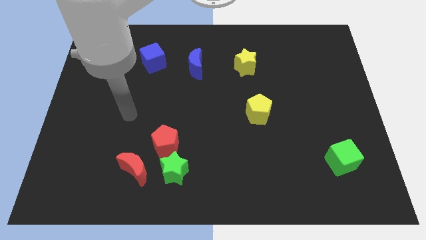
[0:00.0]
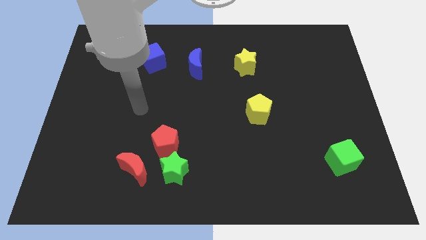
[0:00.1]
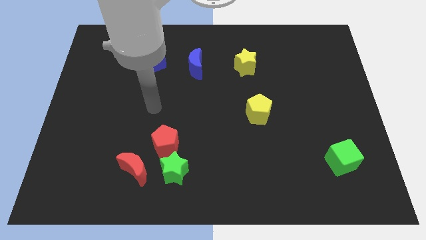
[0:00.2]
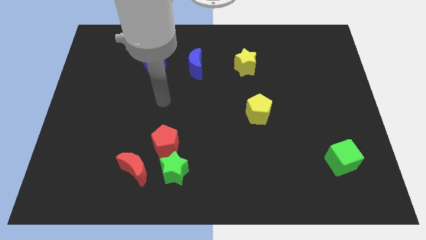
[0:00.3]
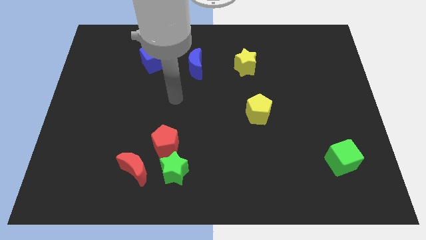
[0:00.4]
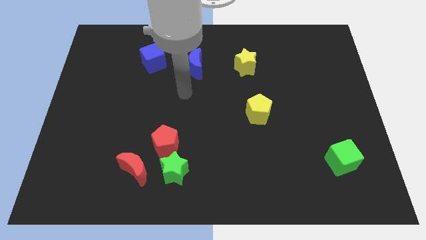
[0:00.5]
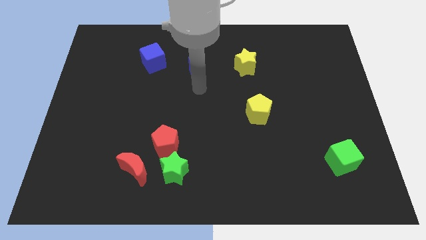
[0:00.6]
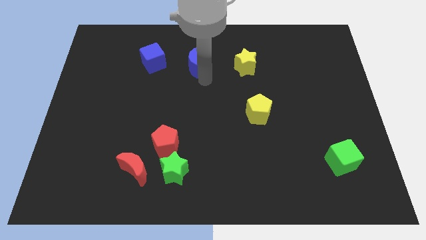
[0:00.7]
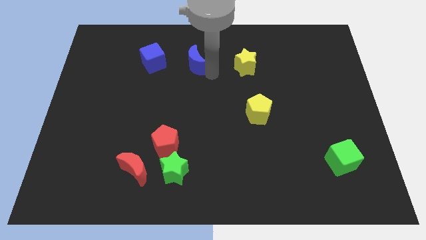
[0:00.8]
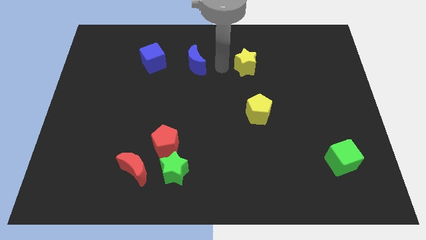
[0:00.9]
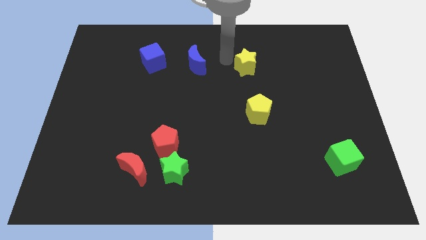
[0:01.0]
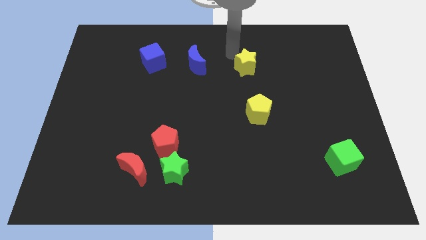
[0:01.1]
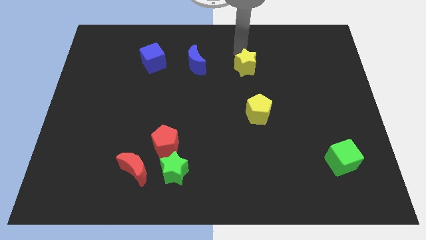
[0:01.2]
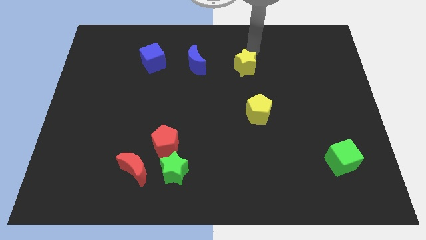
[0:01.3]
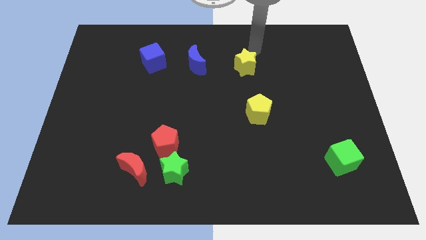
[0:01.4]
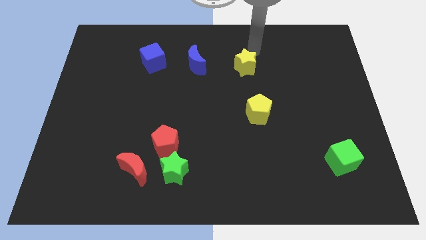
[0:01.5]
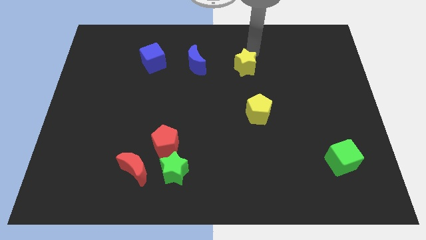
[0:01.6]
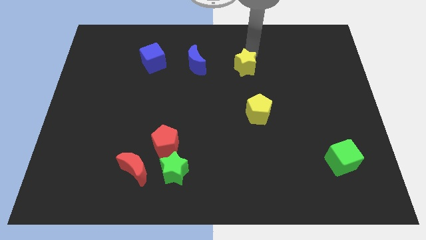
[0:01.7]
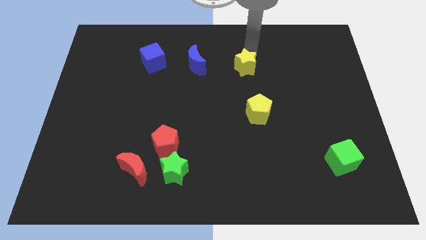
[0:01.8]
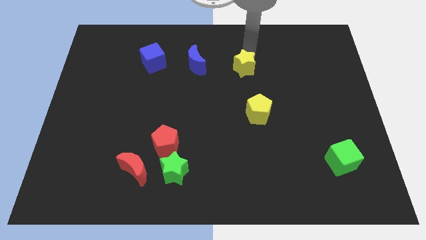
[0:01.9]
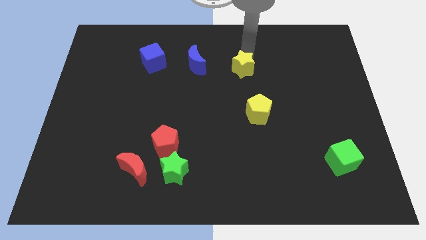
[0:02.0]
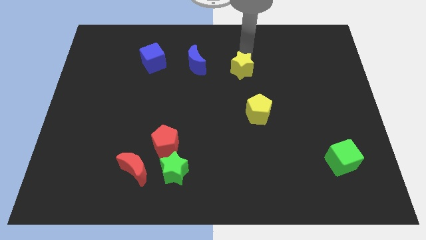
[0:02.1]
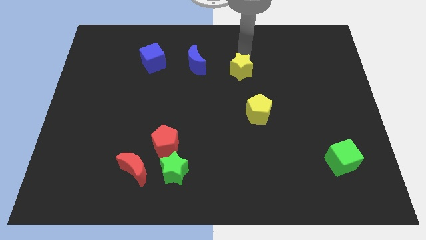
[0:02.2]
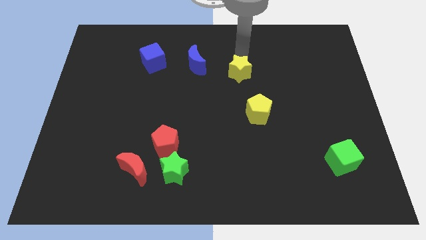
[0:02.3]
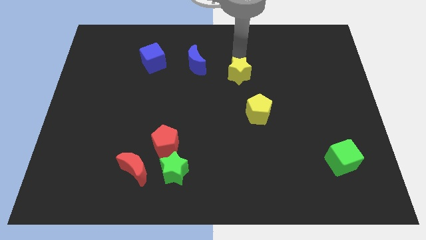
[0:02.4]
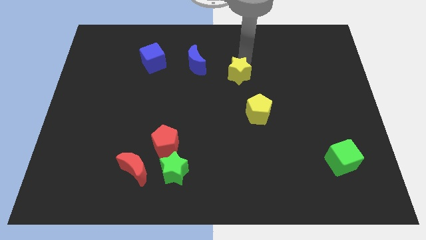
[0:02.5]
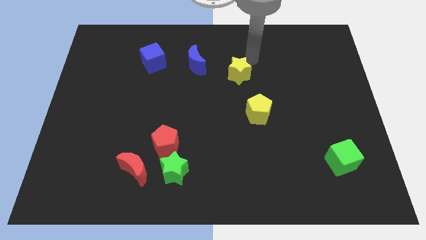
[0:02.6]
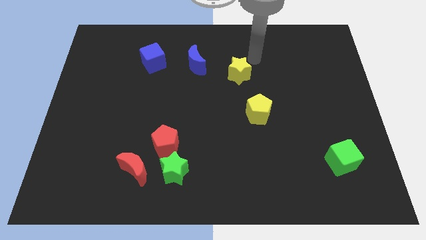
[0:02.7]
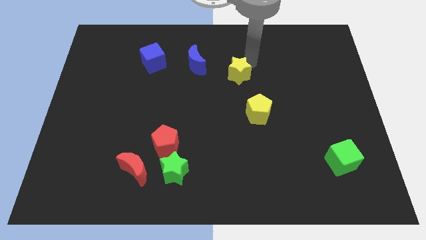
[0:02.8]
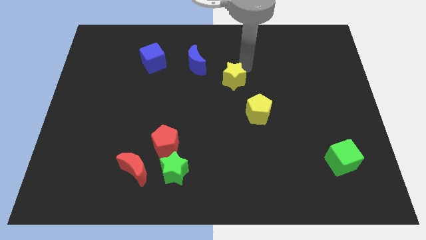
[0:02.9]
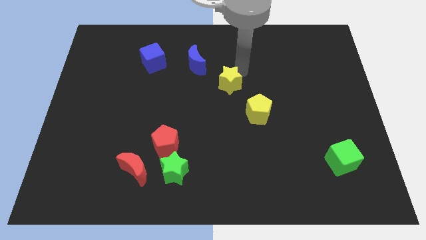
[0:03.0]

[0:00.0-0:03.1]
push the yellow star diagonally downwards and to the left a bit

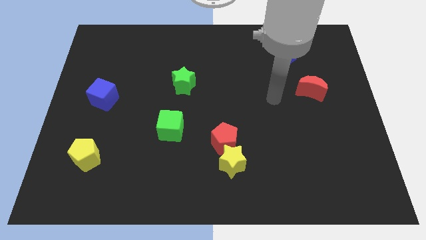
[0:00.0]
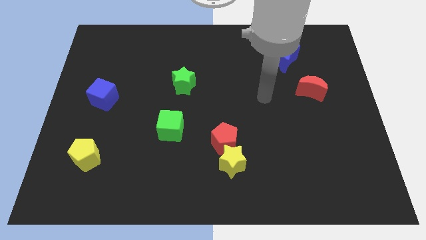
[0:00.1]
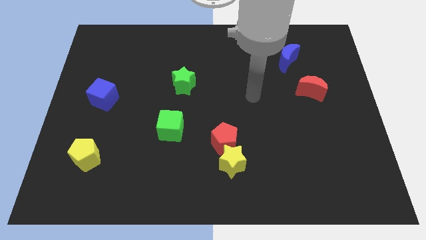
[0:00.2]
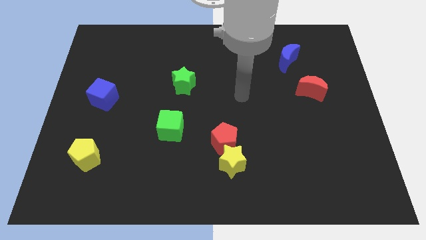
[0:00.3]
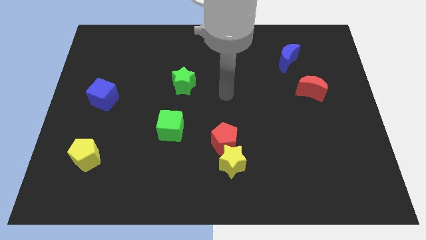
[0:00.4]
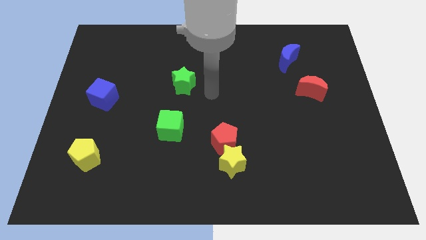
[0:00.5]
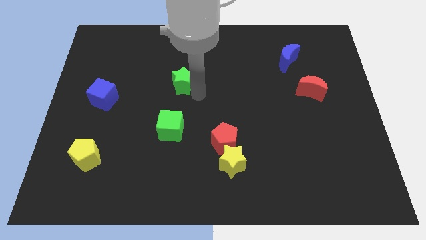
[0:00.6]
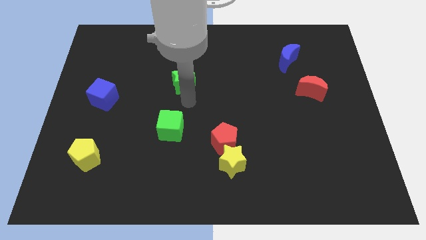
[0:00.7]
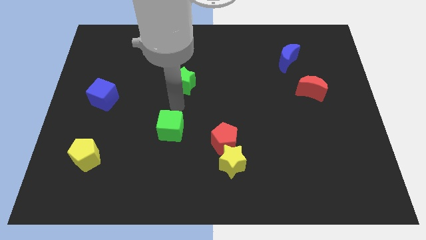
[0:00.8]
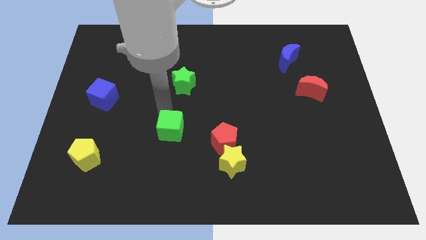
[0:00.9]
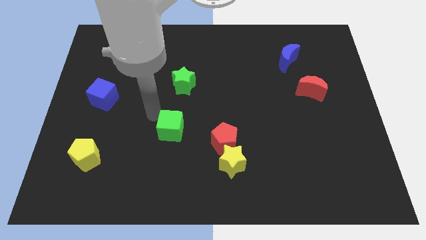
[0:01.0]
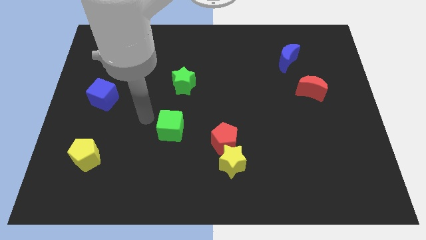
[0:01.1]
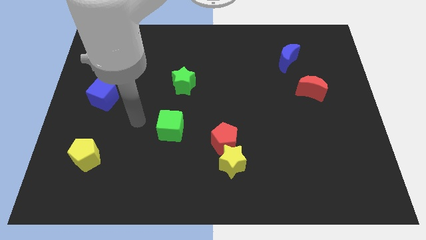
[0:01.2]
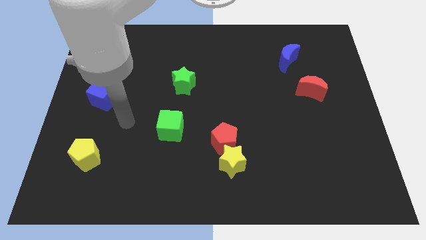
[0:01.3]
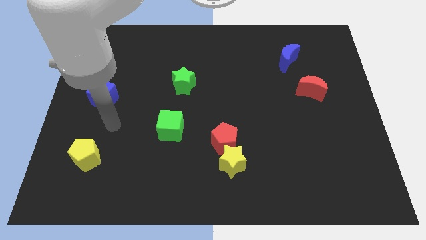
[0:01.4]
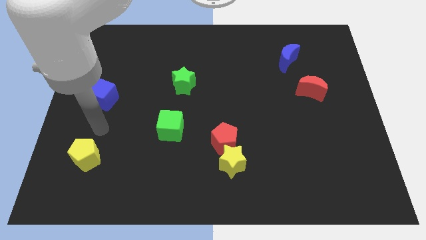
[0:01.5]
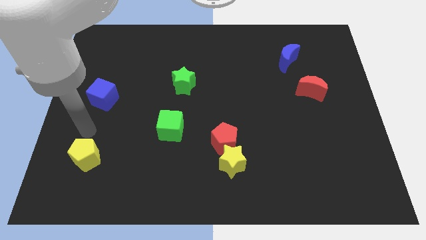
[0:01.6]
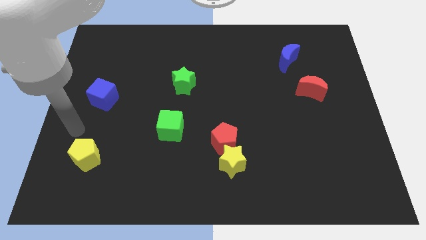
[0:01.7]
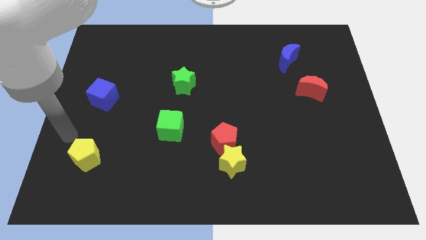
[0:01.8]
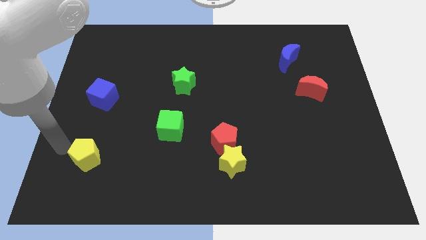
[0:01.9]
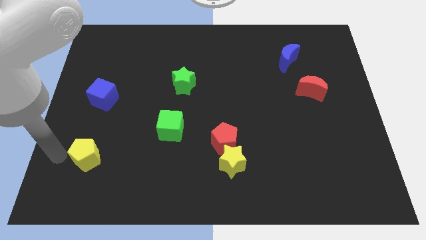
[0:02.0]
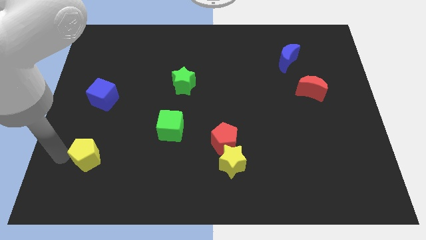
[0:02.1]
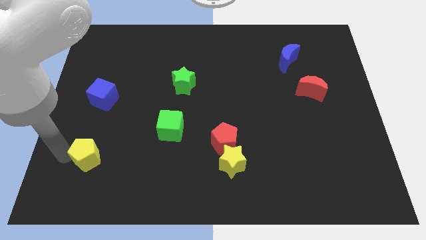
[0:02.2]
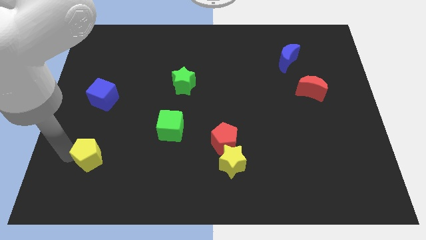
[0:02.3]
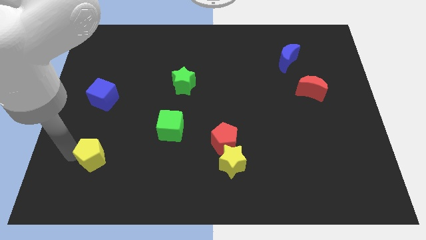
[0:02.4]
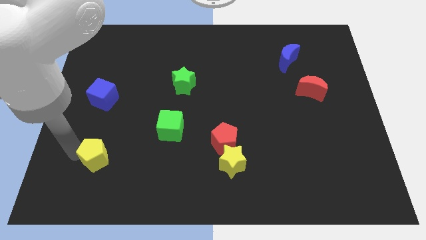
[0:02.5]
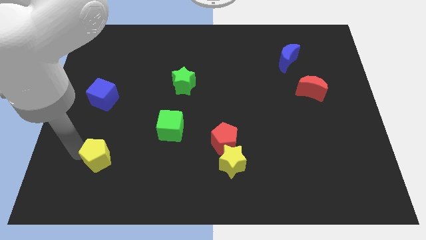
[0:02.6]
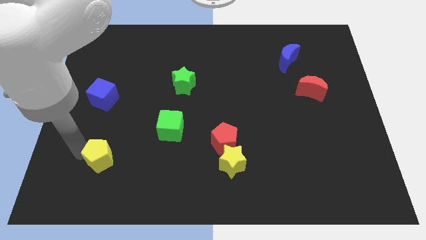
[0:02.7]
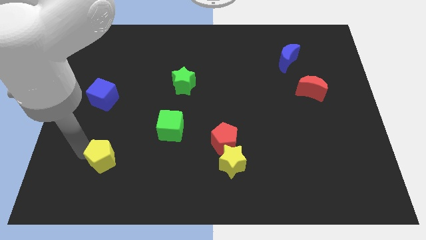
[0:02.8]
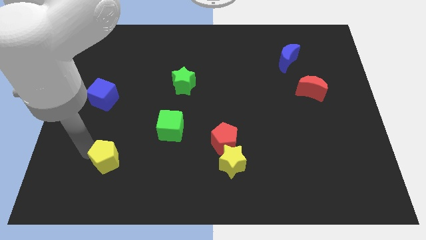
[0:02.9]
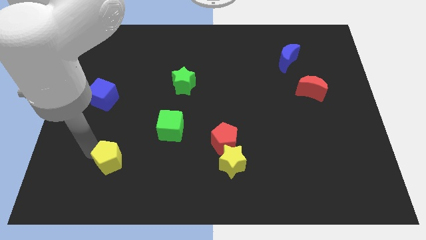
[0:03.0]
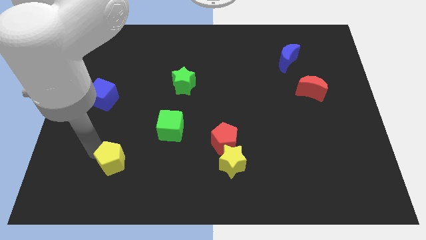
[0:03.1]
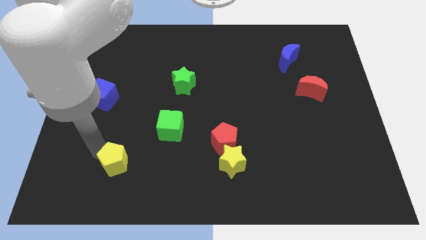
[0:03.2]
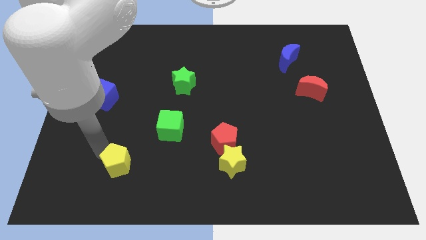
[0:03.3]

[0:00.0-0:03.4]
slide the yellow pentagon to the right a bit

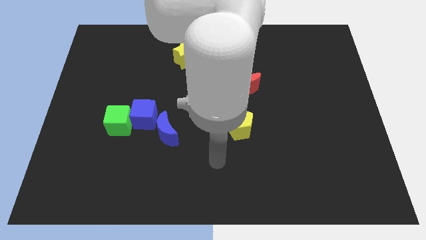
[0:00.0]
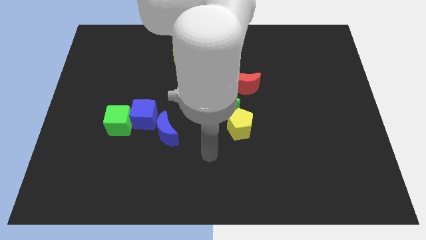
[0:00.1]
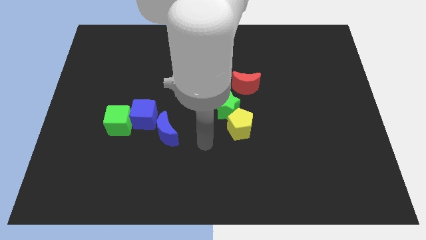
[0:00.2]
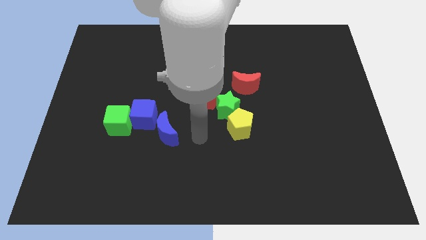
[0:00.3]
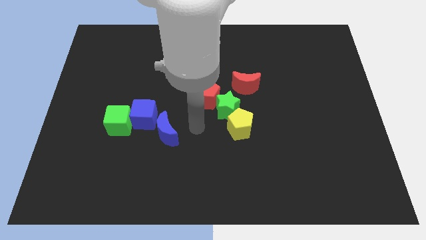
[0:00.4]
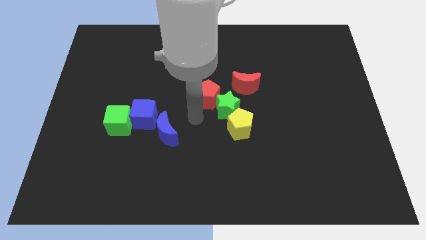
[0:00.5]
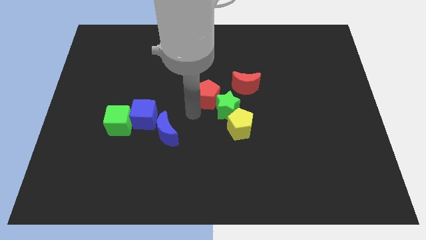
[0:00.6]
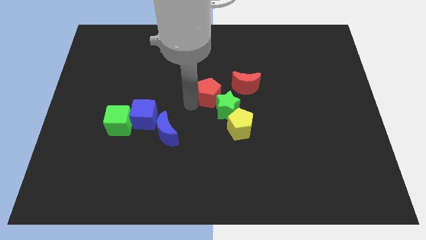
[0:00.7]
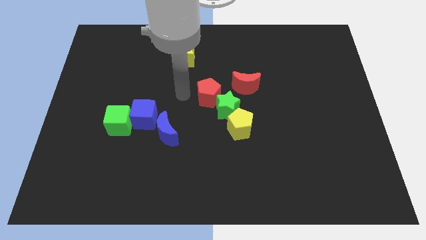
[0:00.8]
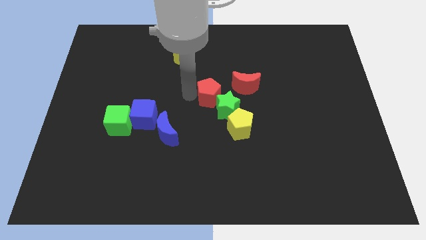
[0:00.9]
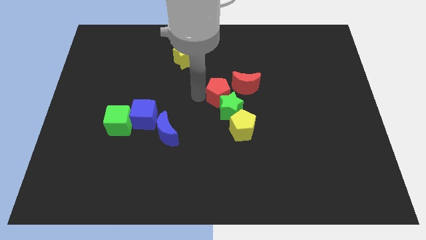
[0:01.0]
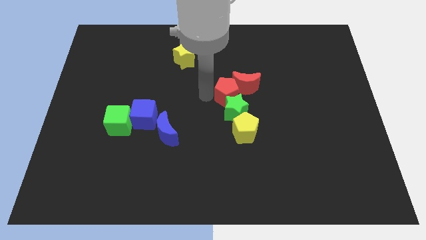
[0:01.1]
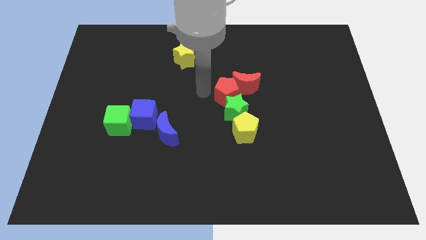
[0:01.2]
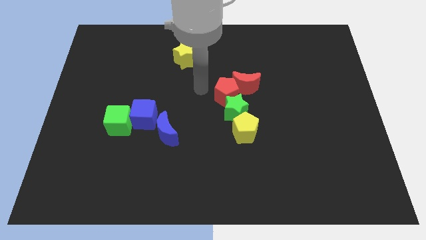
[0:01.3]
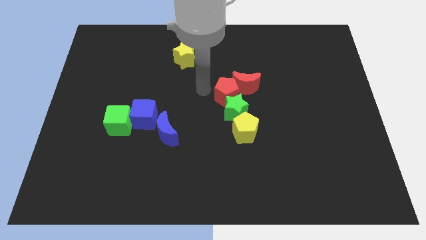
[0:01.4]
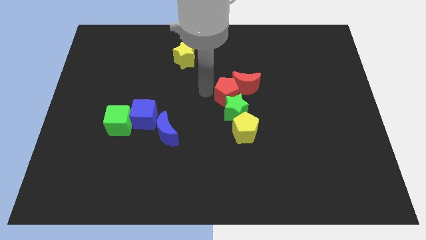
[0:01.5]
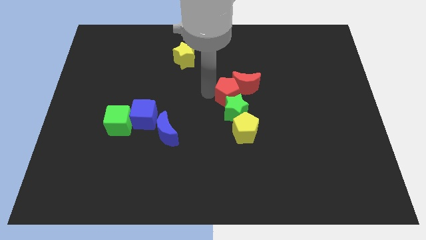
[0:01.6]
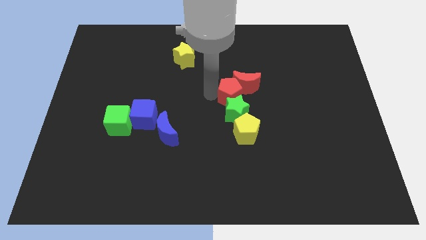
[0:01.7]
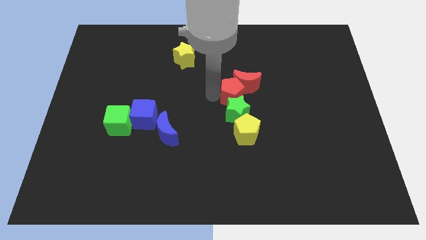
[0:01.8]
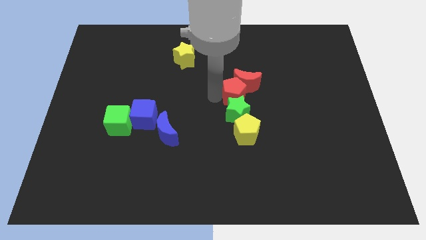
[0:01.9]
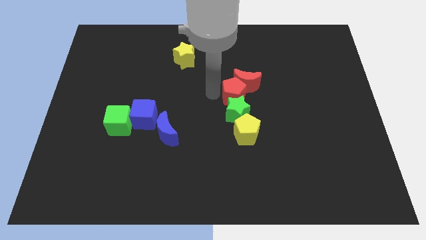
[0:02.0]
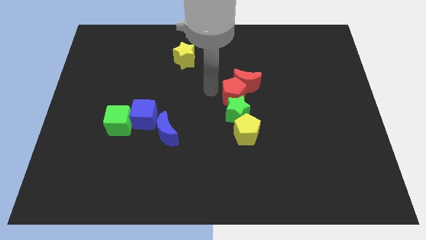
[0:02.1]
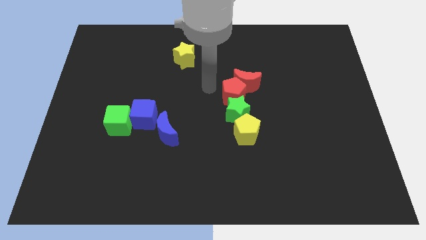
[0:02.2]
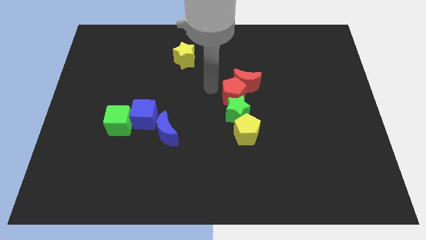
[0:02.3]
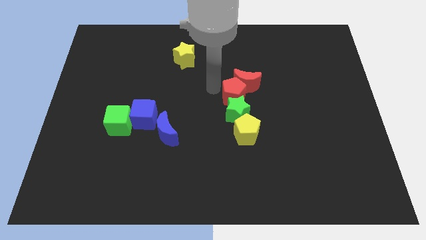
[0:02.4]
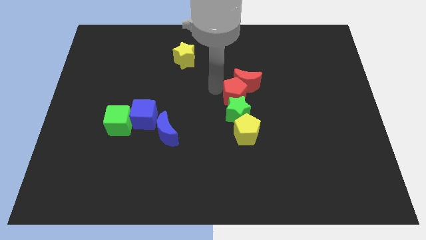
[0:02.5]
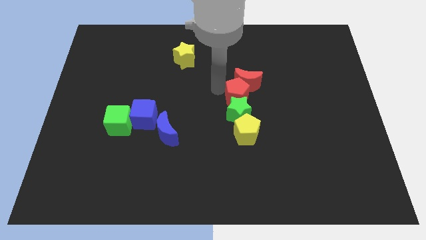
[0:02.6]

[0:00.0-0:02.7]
slide the red pentagon somewhat to the right
